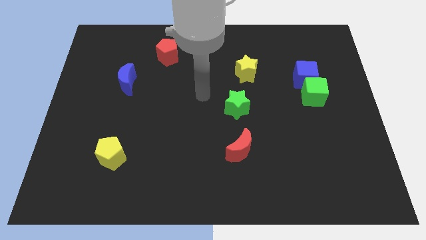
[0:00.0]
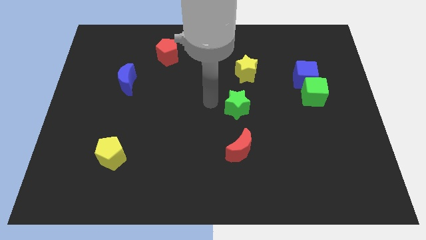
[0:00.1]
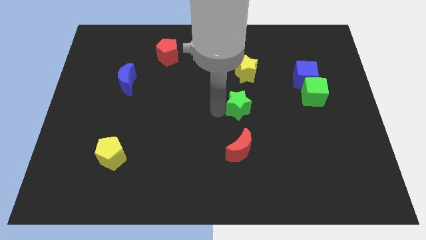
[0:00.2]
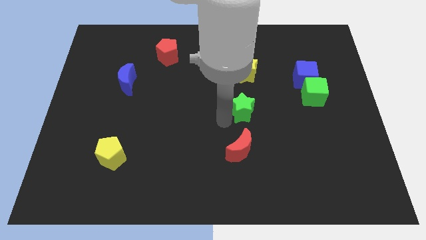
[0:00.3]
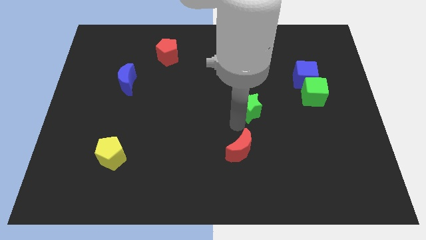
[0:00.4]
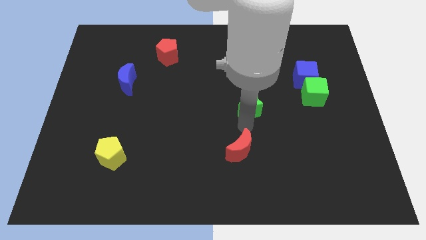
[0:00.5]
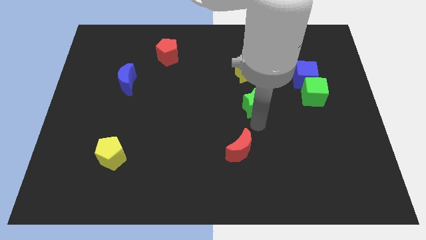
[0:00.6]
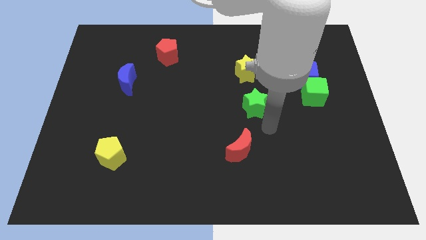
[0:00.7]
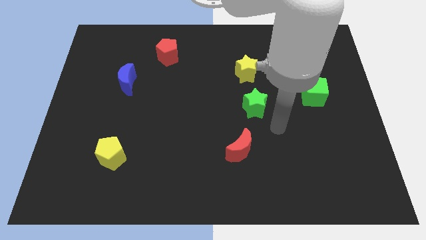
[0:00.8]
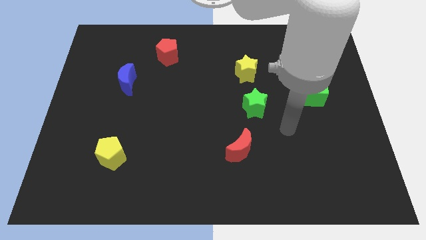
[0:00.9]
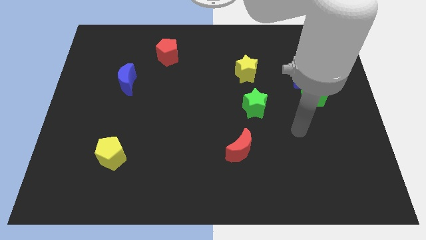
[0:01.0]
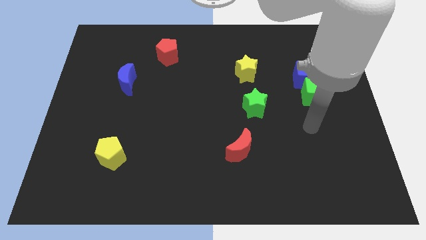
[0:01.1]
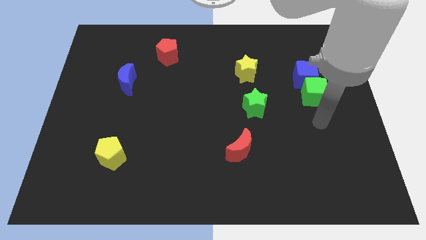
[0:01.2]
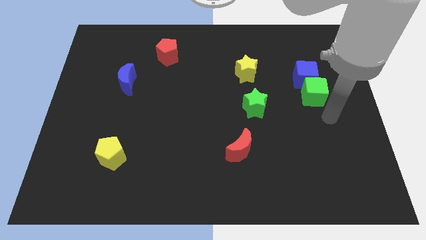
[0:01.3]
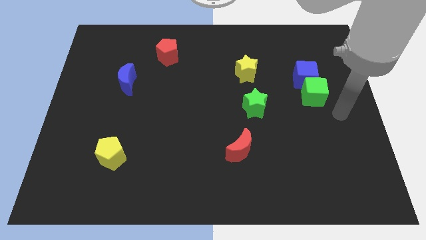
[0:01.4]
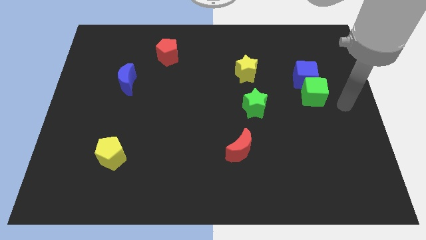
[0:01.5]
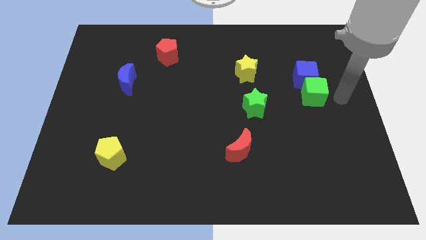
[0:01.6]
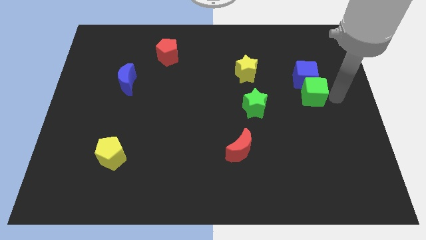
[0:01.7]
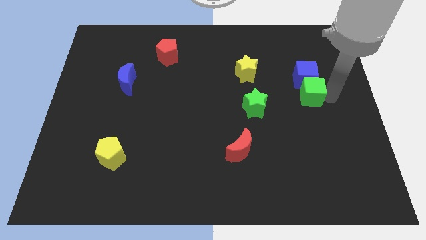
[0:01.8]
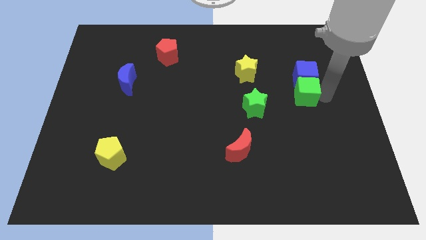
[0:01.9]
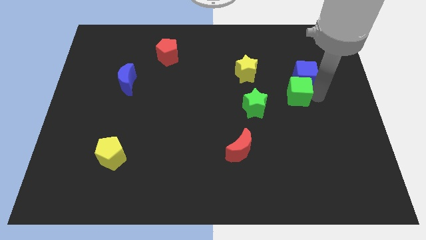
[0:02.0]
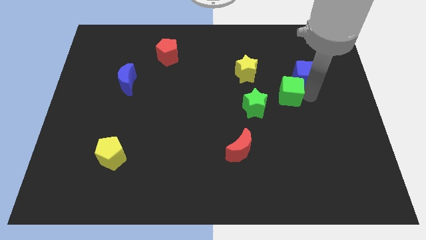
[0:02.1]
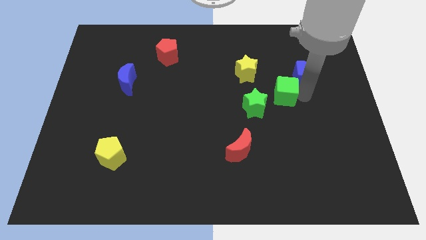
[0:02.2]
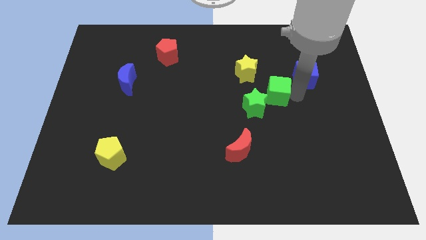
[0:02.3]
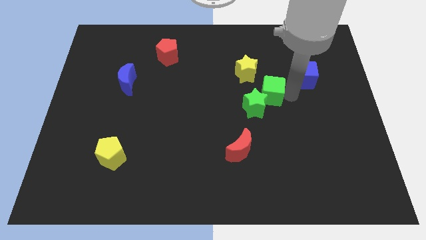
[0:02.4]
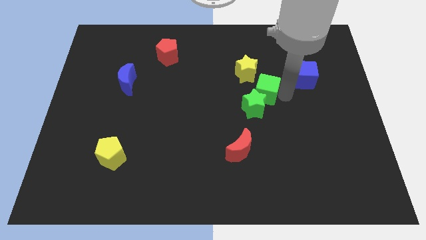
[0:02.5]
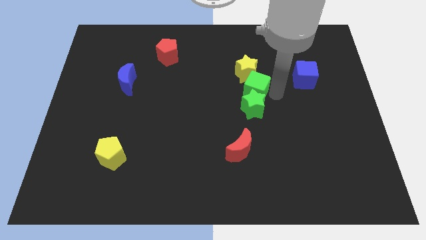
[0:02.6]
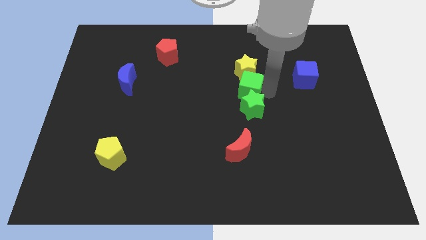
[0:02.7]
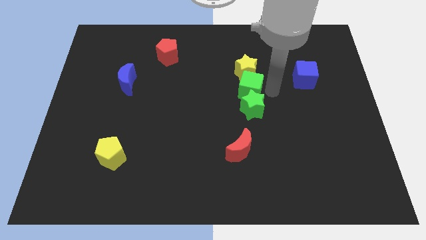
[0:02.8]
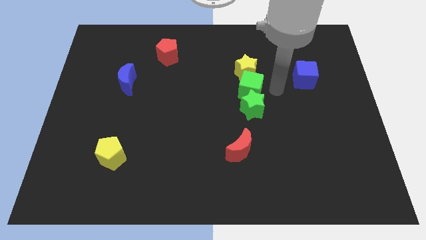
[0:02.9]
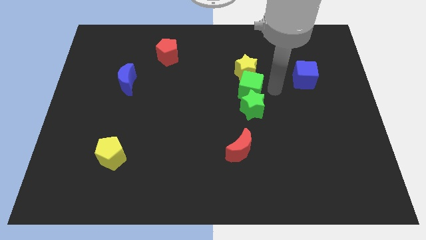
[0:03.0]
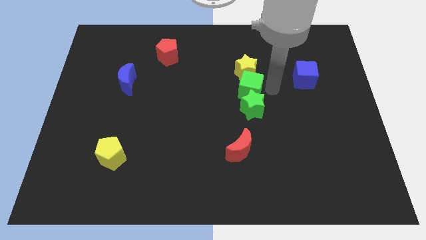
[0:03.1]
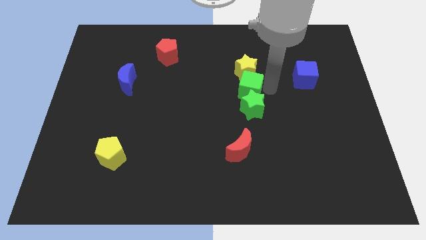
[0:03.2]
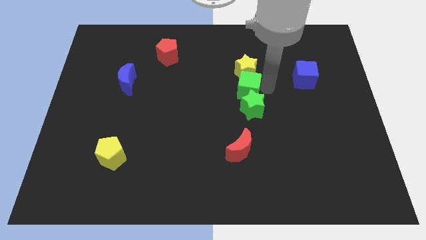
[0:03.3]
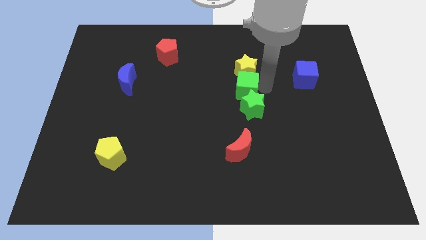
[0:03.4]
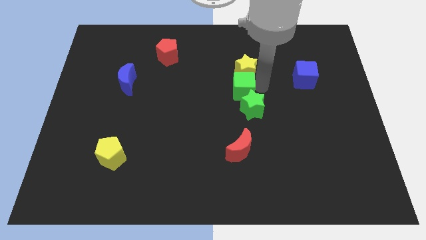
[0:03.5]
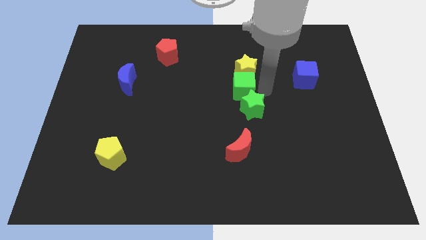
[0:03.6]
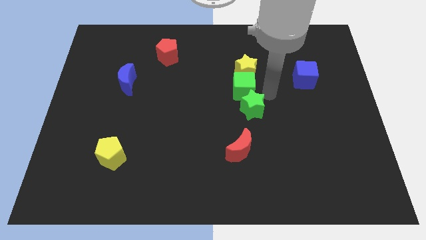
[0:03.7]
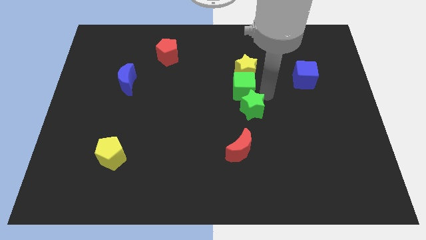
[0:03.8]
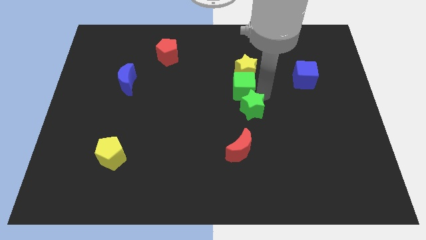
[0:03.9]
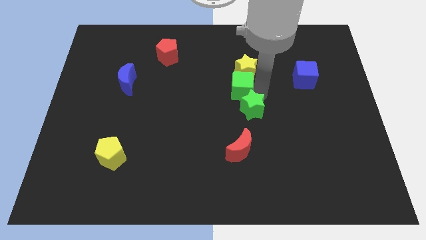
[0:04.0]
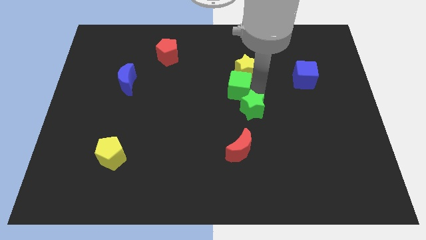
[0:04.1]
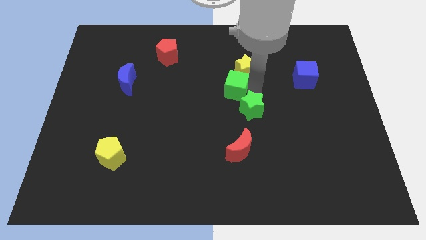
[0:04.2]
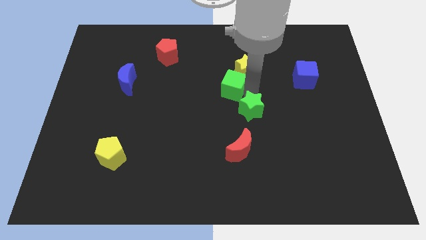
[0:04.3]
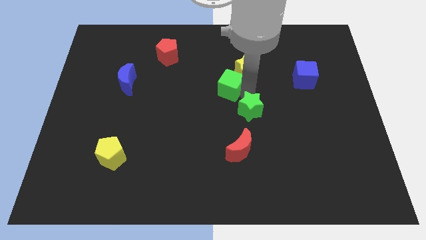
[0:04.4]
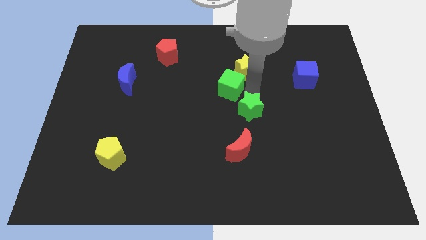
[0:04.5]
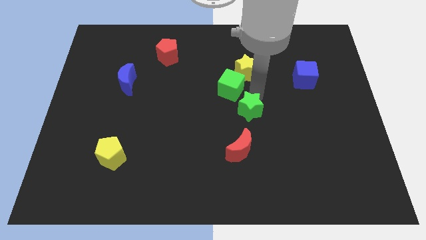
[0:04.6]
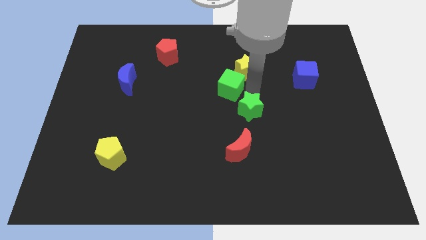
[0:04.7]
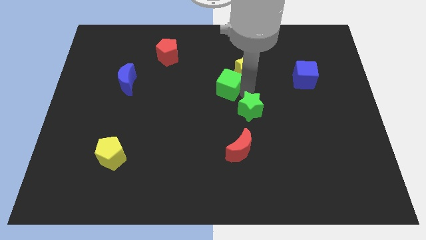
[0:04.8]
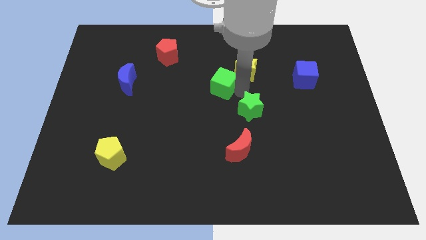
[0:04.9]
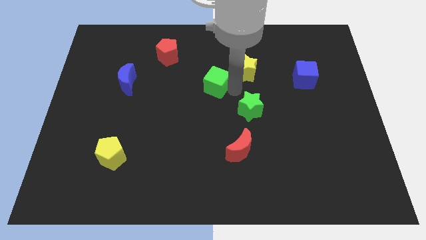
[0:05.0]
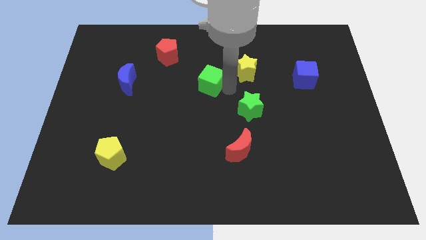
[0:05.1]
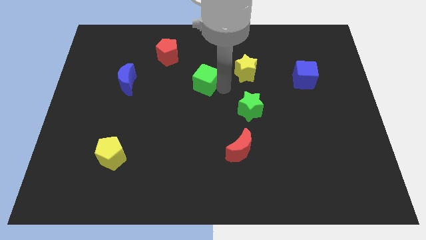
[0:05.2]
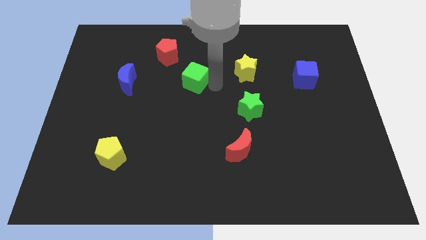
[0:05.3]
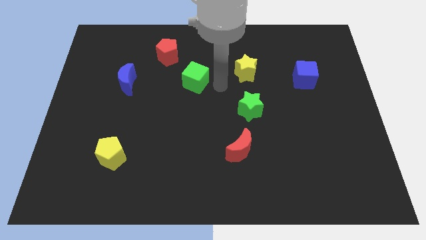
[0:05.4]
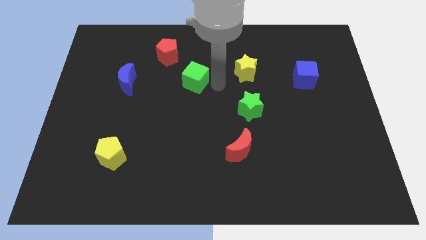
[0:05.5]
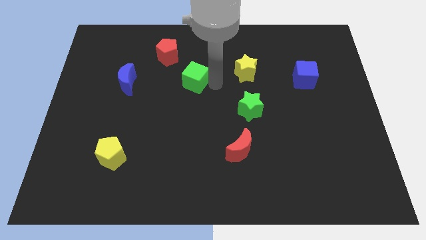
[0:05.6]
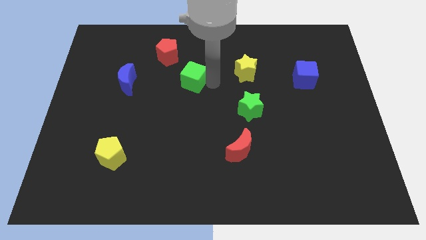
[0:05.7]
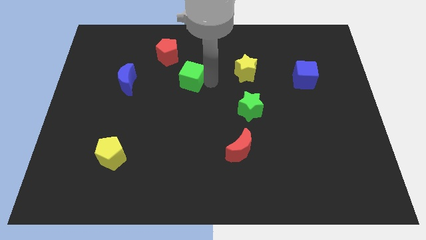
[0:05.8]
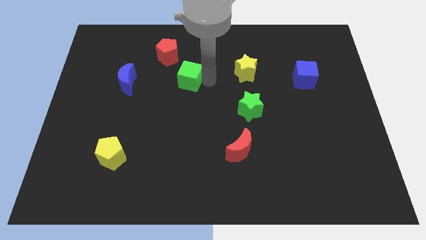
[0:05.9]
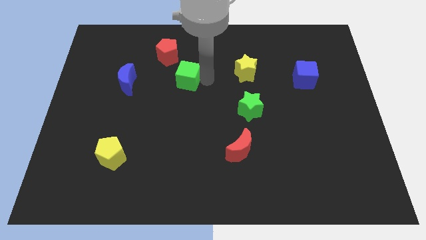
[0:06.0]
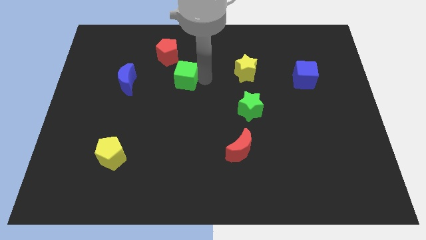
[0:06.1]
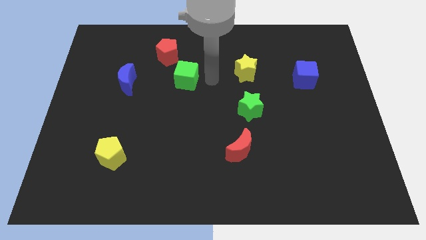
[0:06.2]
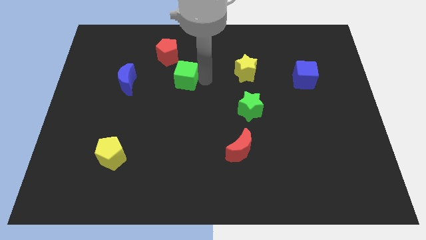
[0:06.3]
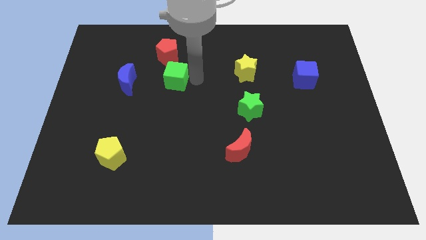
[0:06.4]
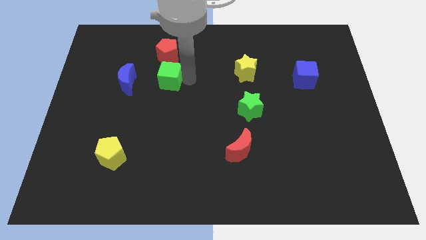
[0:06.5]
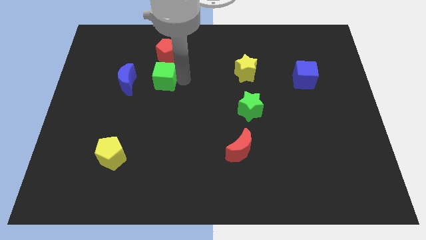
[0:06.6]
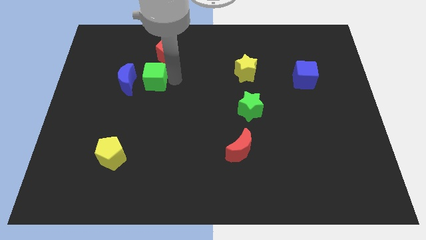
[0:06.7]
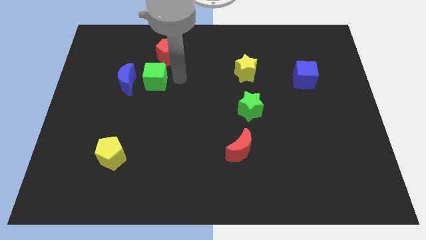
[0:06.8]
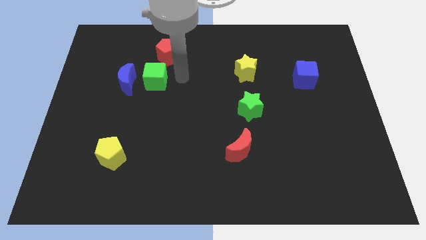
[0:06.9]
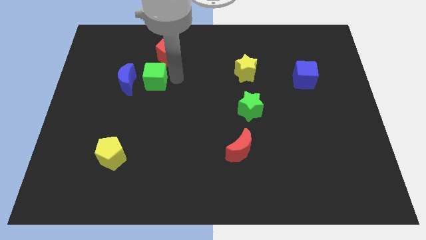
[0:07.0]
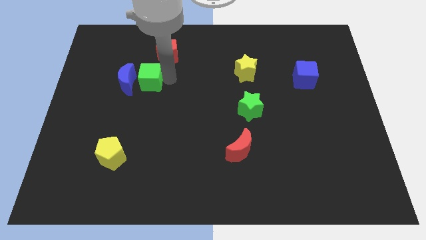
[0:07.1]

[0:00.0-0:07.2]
put the green cube towards the blue moon
